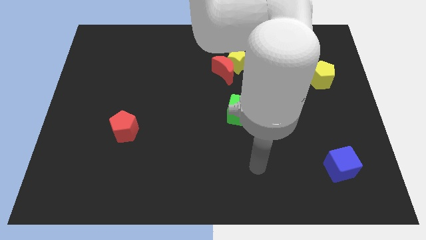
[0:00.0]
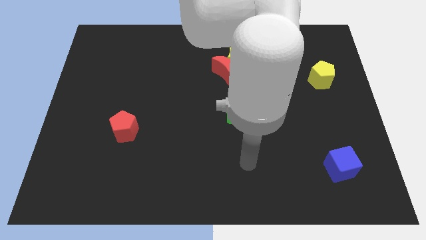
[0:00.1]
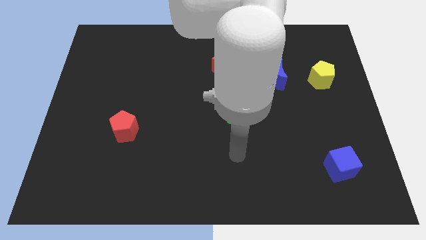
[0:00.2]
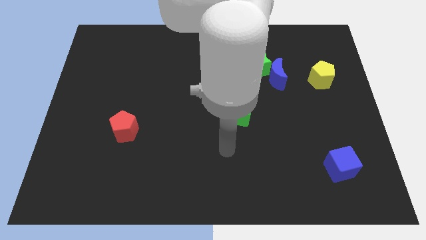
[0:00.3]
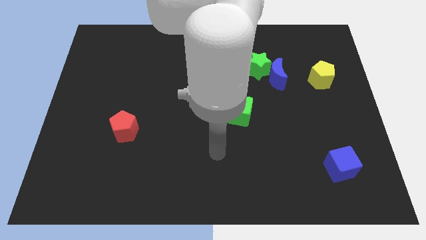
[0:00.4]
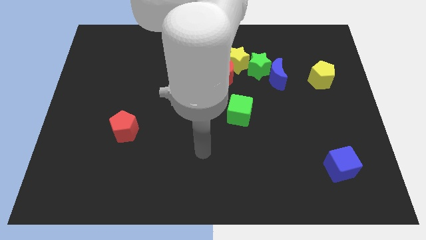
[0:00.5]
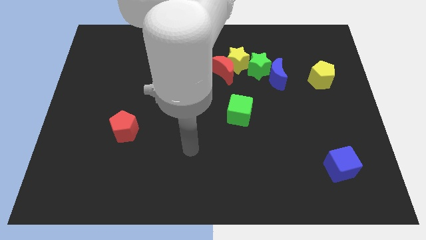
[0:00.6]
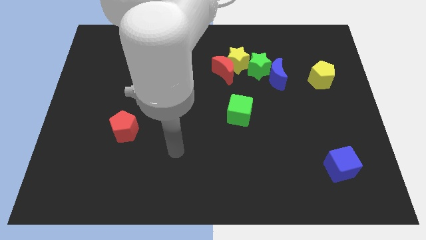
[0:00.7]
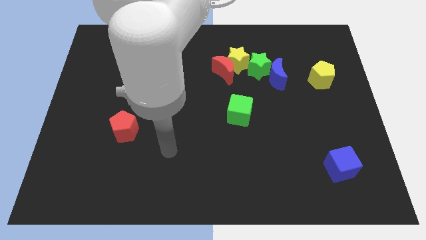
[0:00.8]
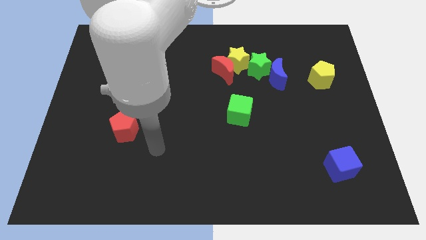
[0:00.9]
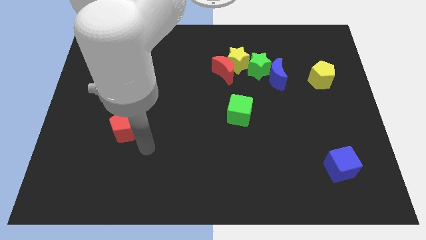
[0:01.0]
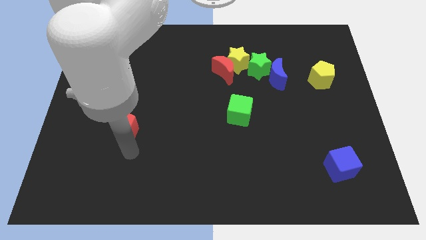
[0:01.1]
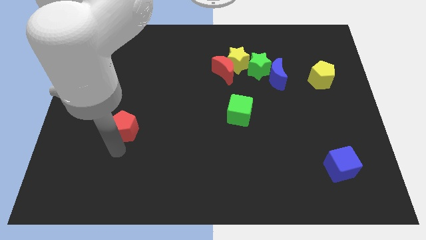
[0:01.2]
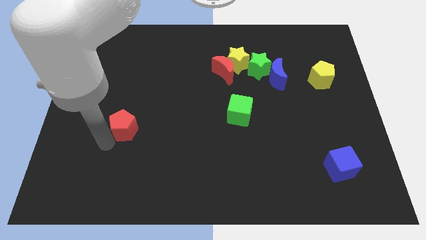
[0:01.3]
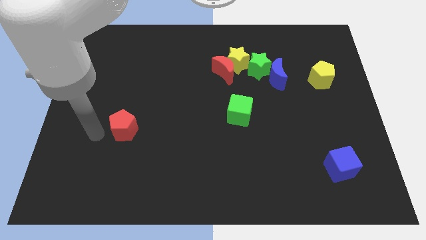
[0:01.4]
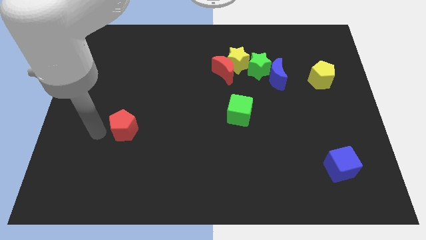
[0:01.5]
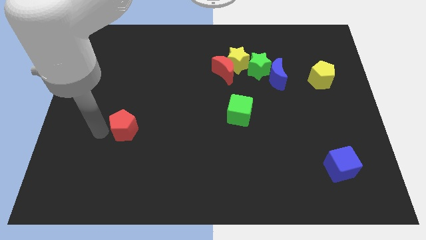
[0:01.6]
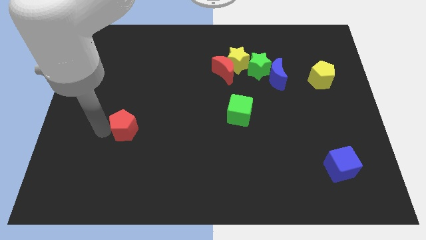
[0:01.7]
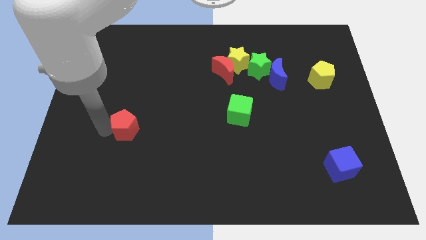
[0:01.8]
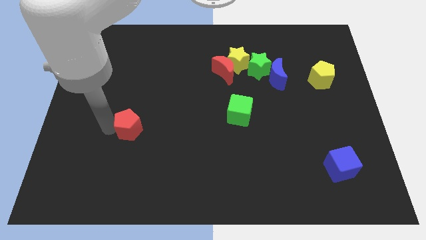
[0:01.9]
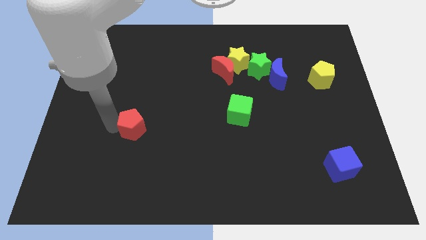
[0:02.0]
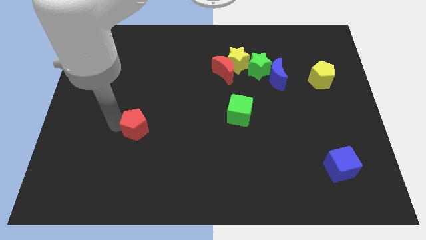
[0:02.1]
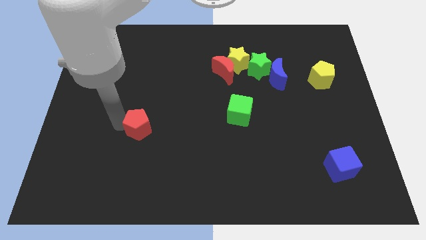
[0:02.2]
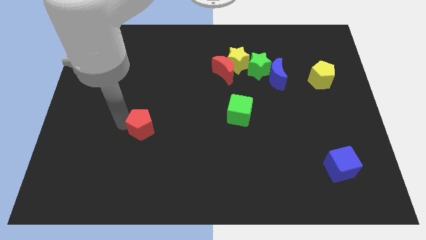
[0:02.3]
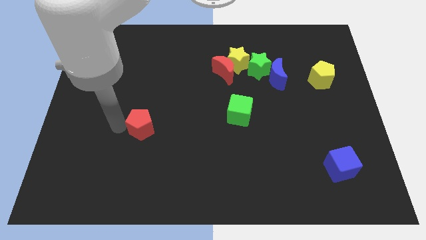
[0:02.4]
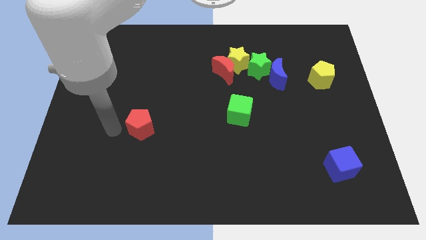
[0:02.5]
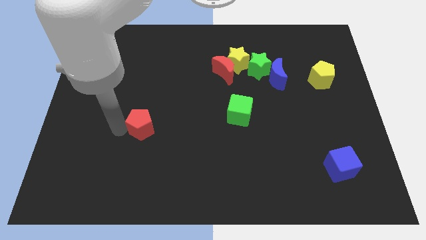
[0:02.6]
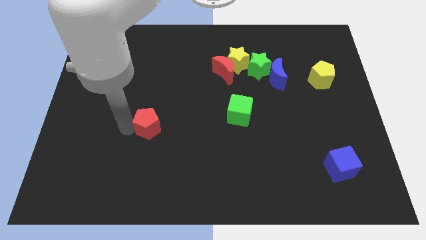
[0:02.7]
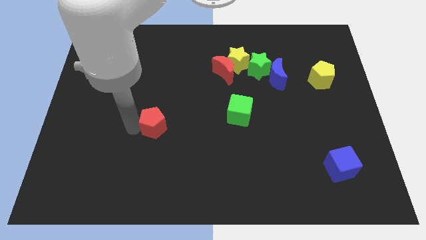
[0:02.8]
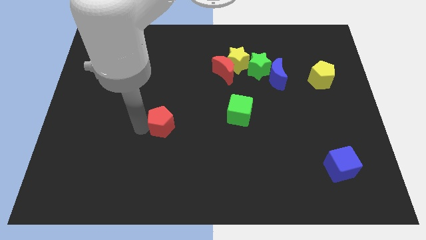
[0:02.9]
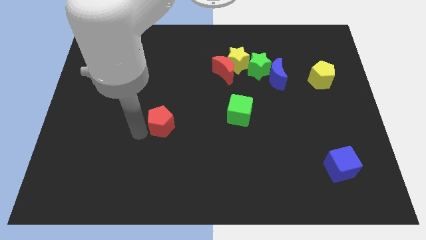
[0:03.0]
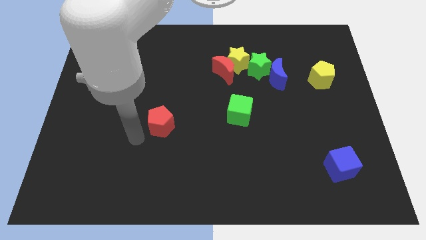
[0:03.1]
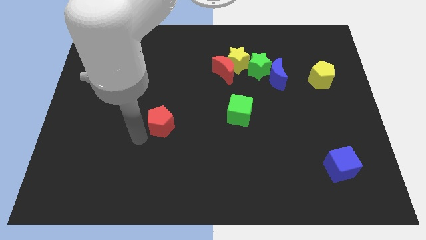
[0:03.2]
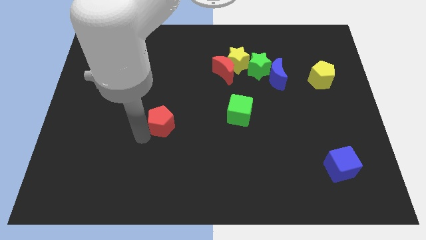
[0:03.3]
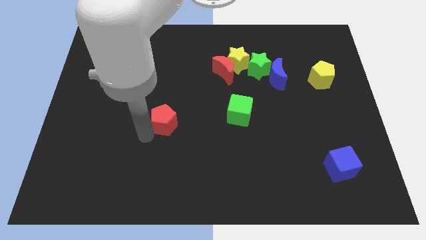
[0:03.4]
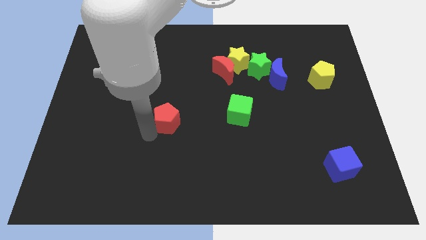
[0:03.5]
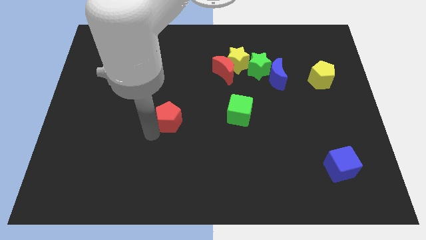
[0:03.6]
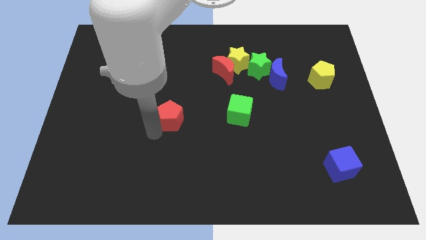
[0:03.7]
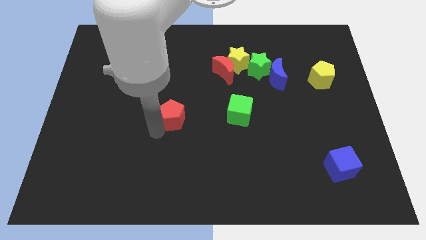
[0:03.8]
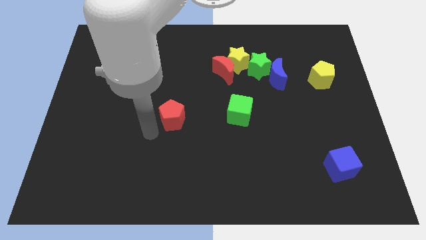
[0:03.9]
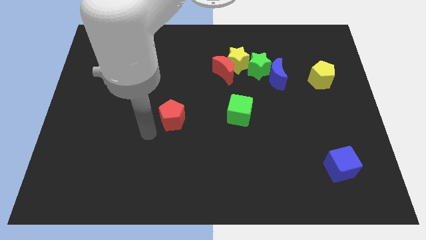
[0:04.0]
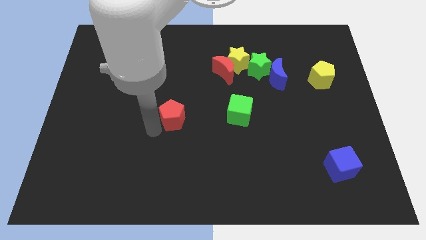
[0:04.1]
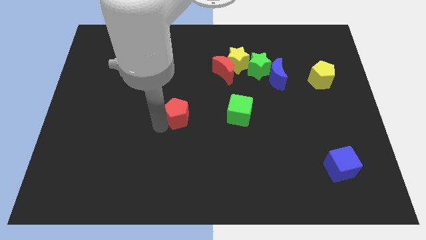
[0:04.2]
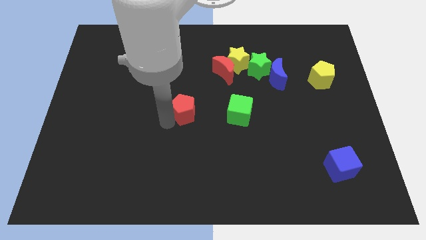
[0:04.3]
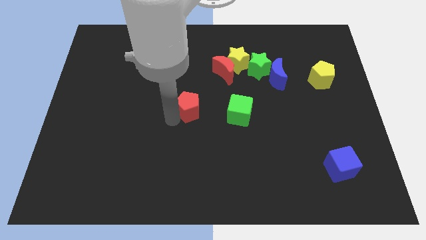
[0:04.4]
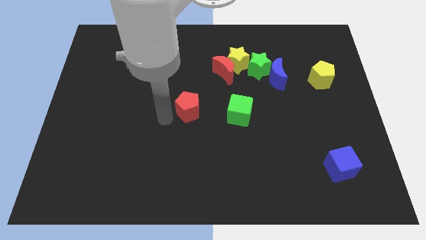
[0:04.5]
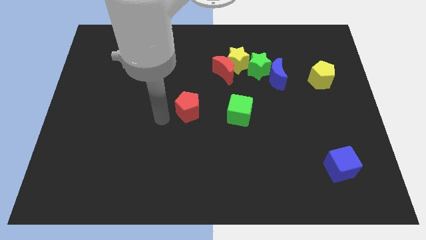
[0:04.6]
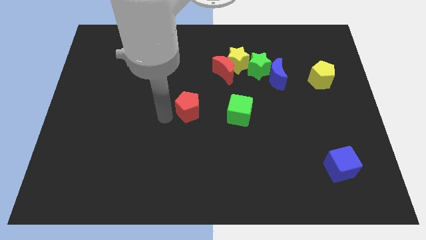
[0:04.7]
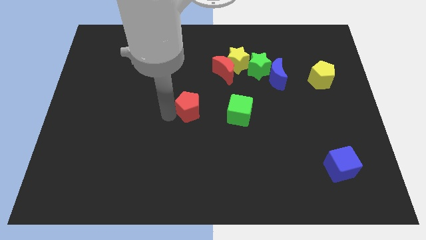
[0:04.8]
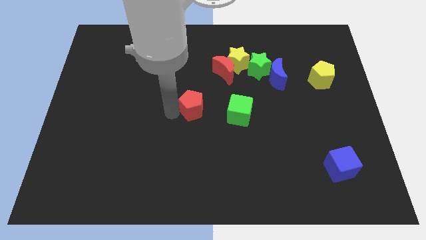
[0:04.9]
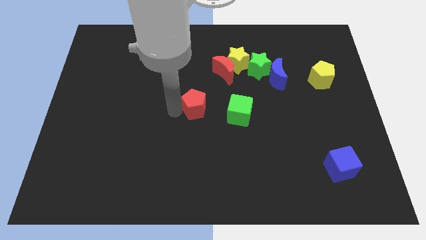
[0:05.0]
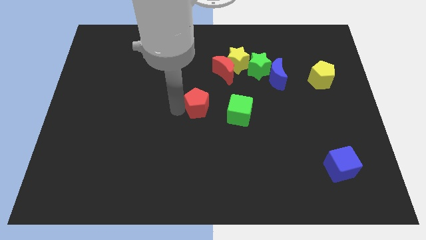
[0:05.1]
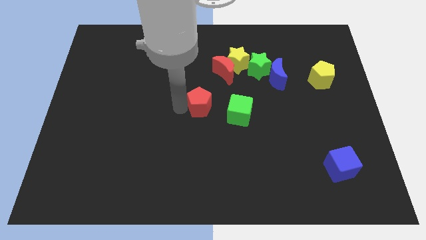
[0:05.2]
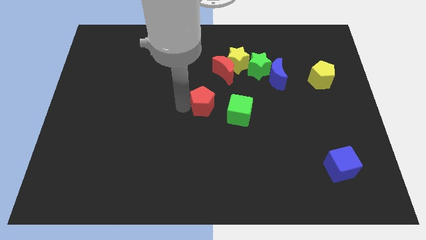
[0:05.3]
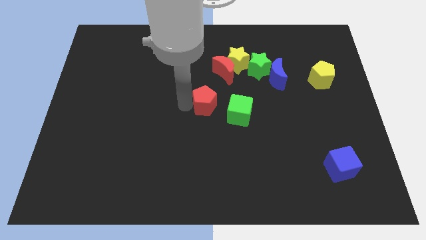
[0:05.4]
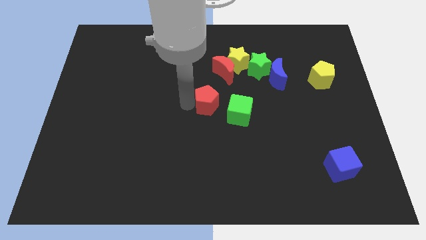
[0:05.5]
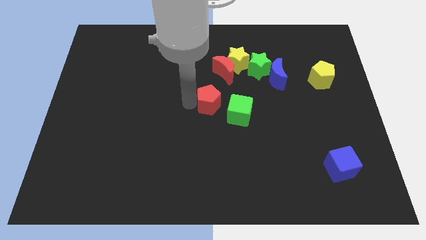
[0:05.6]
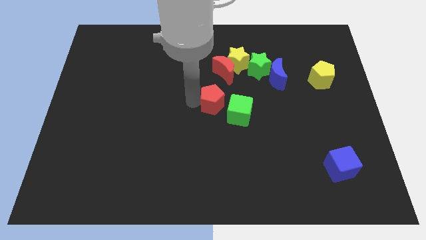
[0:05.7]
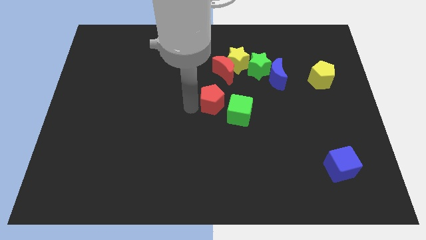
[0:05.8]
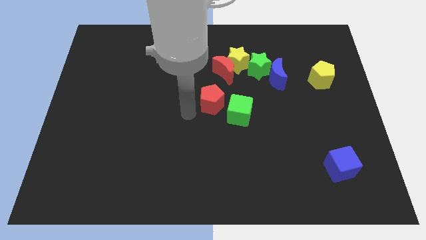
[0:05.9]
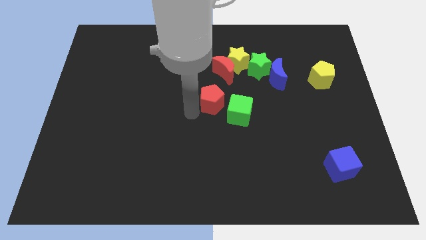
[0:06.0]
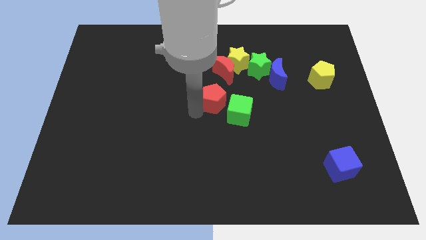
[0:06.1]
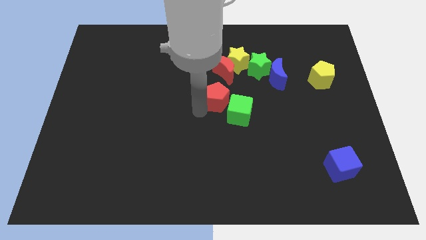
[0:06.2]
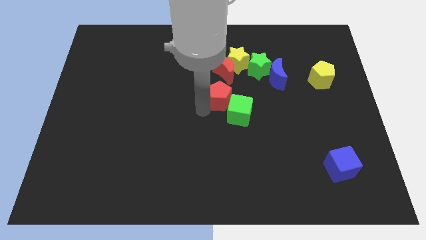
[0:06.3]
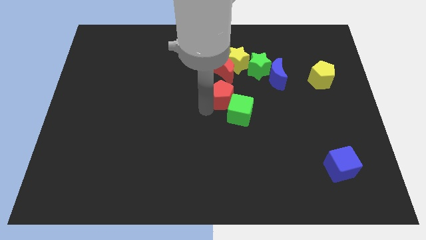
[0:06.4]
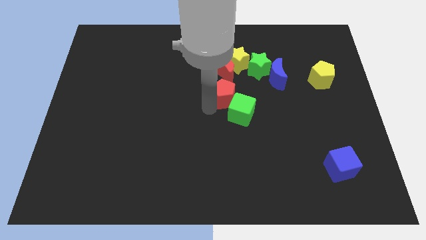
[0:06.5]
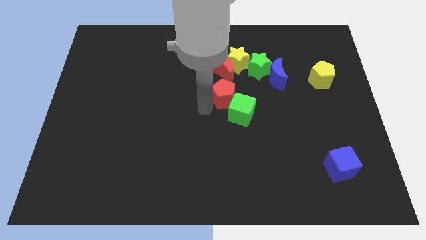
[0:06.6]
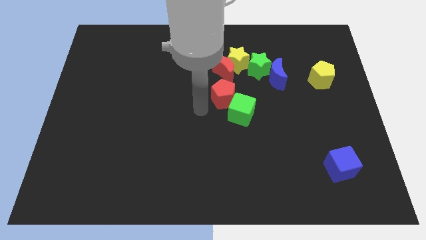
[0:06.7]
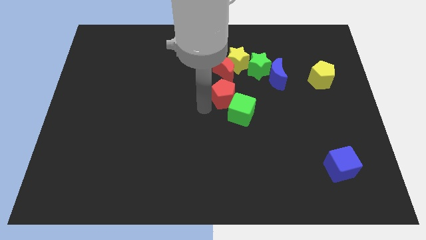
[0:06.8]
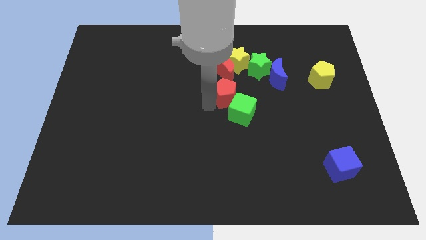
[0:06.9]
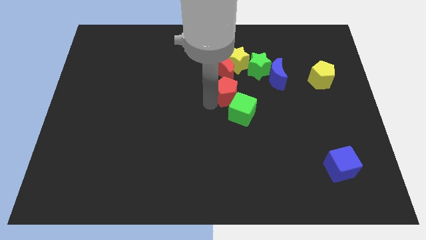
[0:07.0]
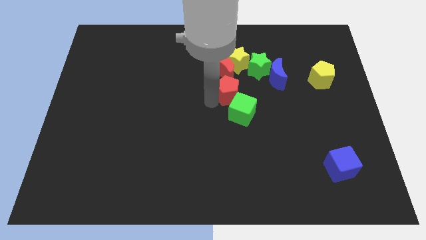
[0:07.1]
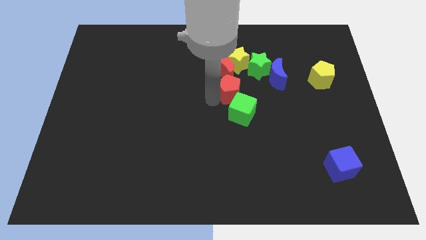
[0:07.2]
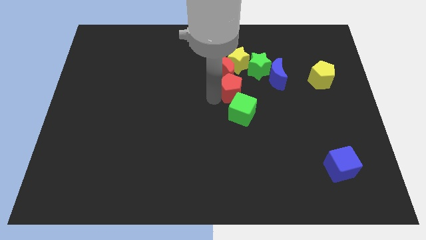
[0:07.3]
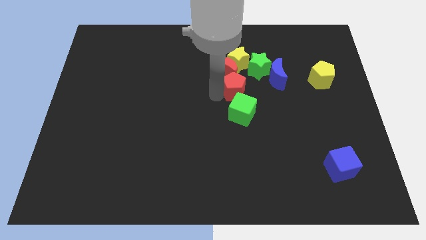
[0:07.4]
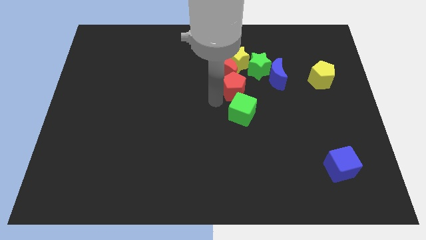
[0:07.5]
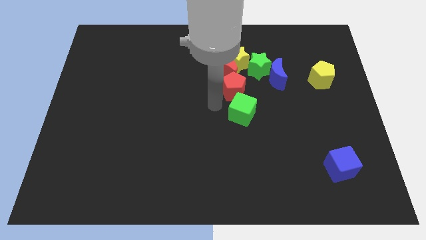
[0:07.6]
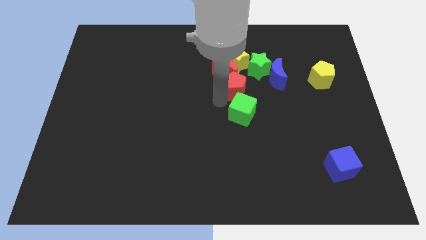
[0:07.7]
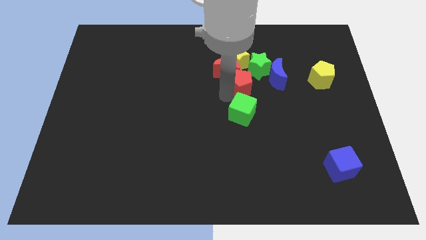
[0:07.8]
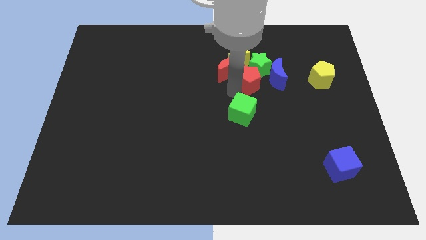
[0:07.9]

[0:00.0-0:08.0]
push the red pentagon to the green star
